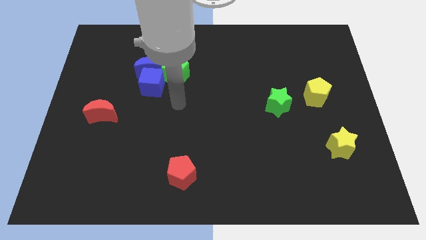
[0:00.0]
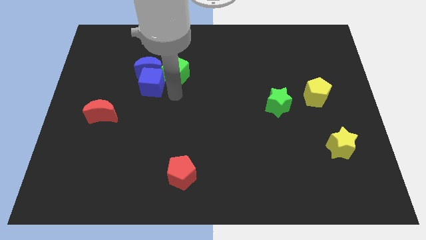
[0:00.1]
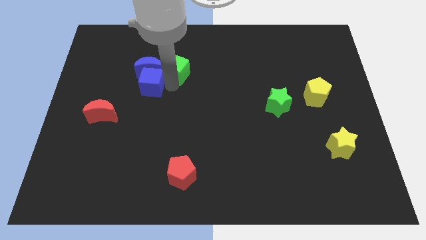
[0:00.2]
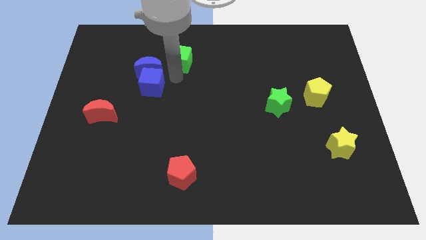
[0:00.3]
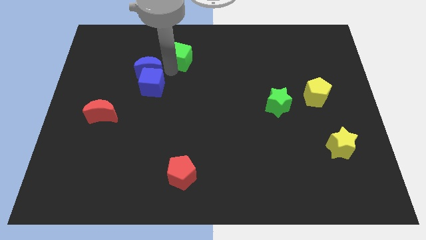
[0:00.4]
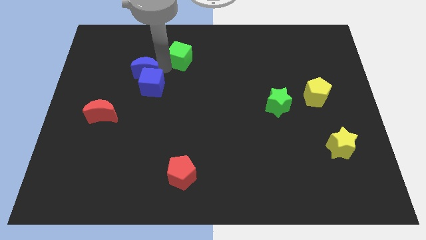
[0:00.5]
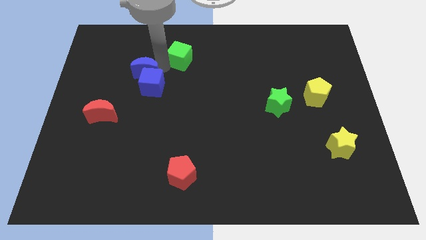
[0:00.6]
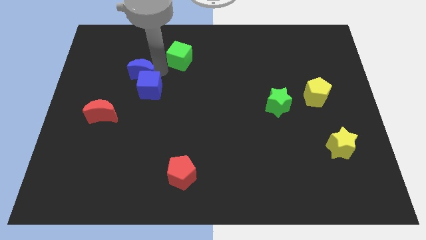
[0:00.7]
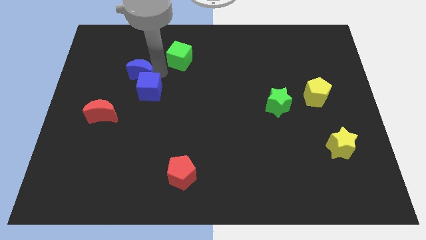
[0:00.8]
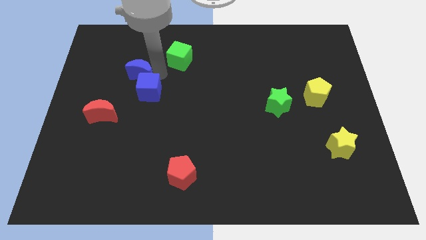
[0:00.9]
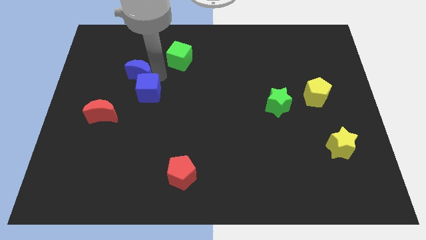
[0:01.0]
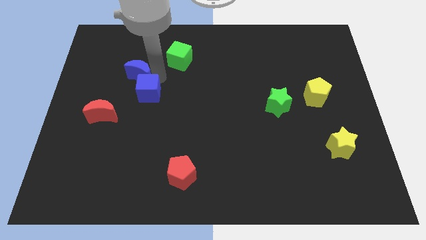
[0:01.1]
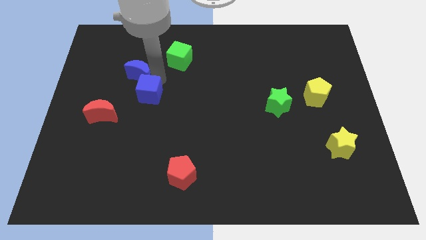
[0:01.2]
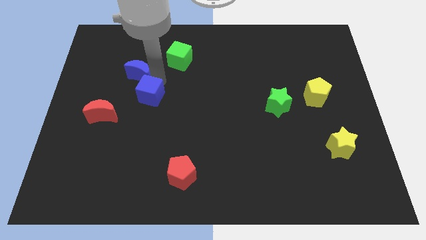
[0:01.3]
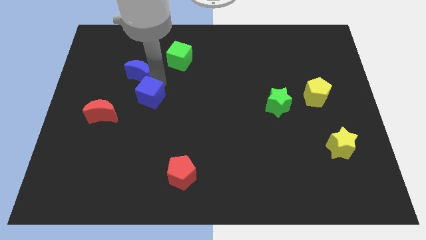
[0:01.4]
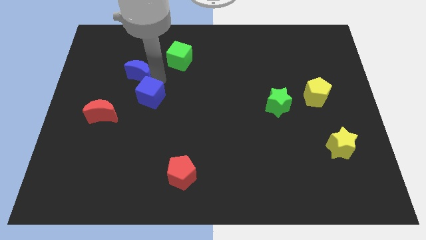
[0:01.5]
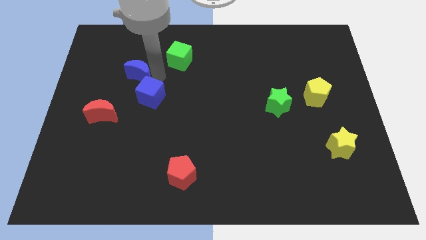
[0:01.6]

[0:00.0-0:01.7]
move the blue cube away from the blue moon and green cube

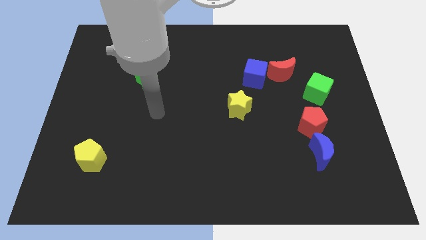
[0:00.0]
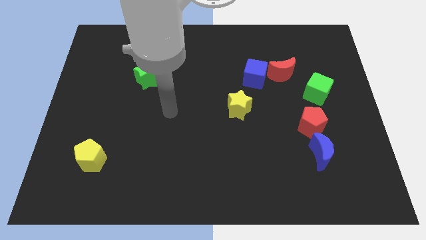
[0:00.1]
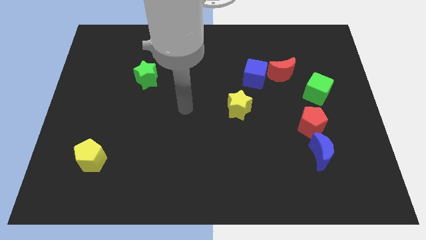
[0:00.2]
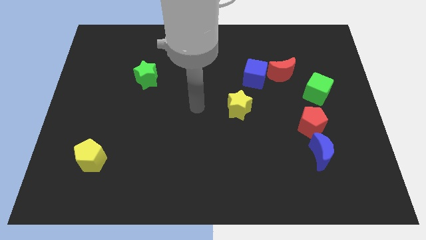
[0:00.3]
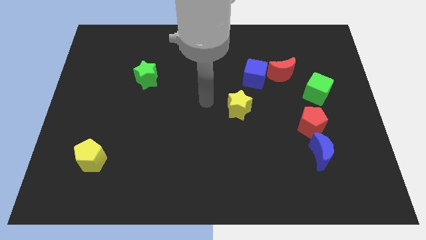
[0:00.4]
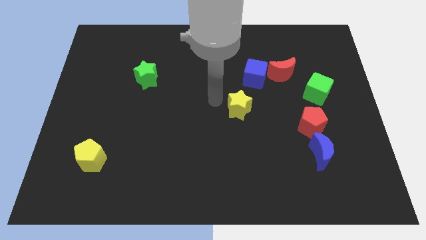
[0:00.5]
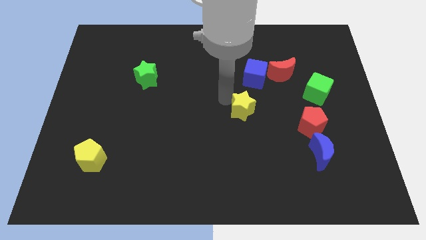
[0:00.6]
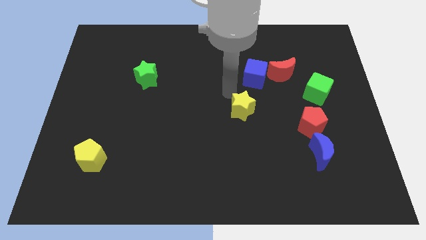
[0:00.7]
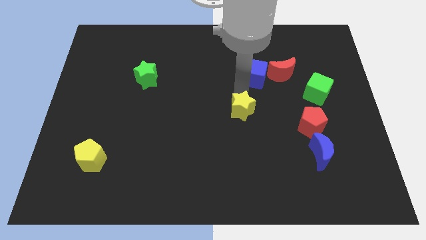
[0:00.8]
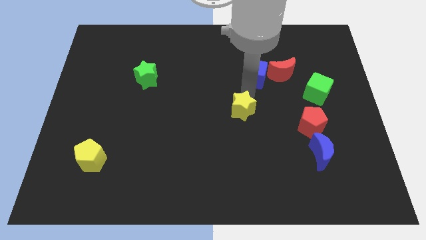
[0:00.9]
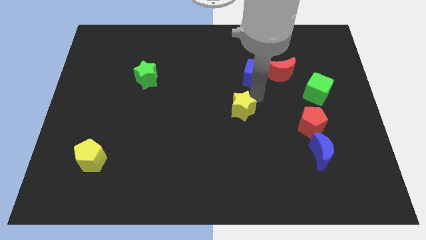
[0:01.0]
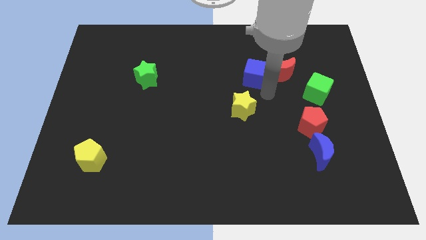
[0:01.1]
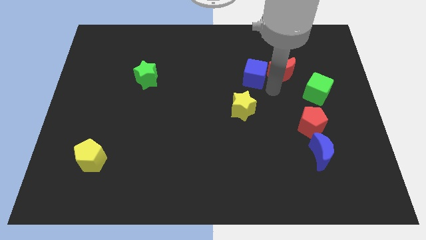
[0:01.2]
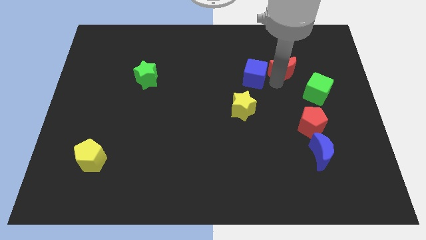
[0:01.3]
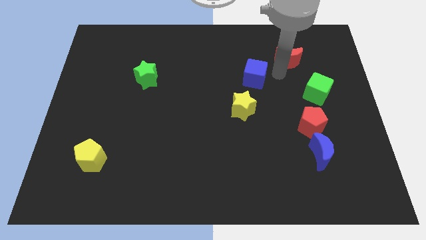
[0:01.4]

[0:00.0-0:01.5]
move the blue cube away from the red moon

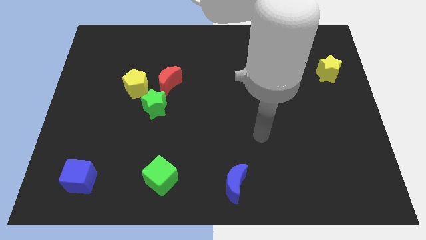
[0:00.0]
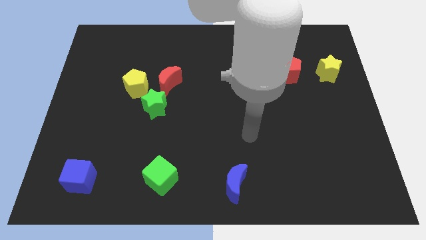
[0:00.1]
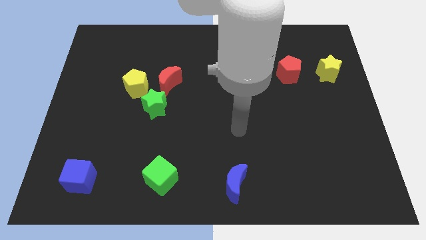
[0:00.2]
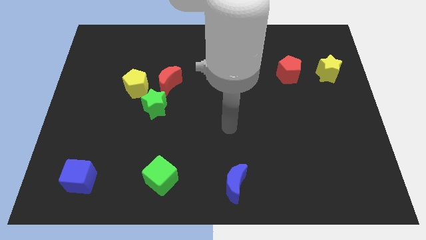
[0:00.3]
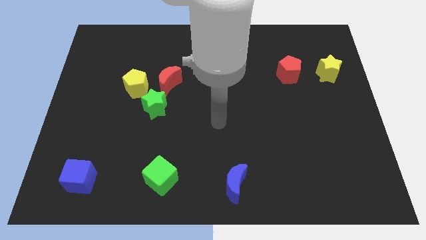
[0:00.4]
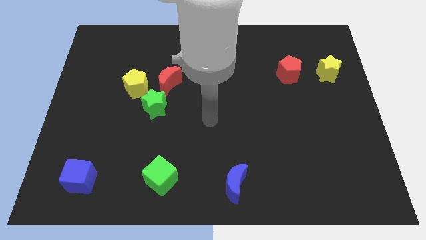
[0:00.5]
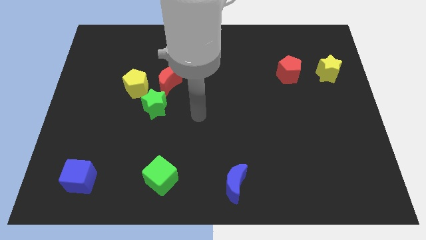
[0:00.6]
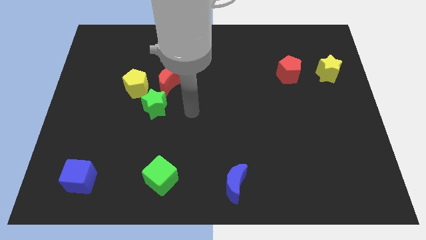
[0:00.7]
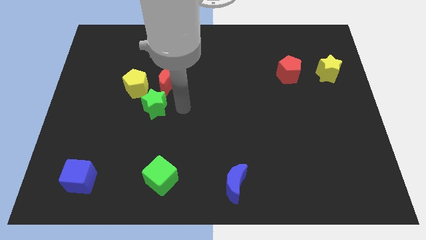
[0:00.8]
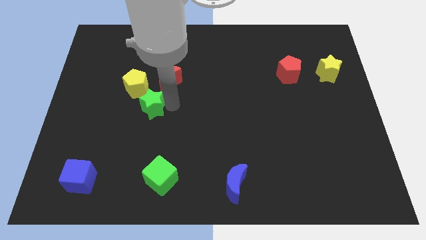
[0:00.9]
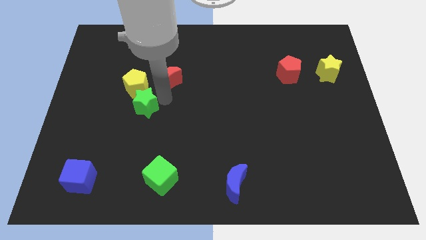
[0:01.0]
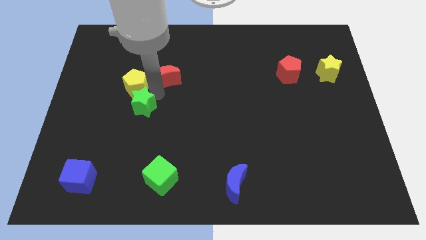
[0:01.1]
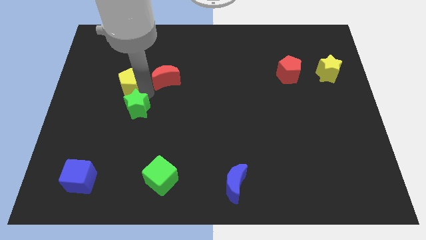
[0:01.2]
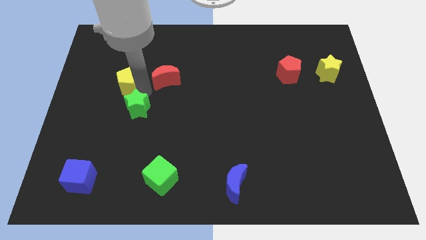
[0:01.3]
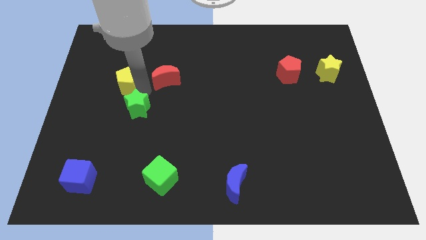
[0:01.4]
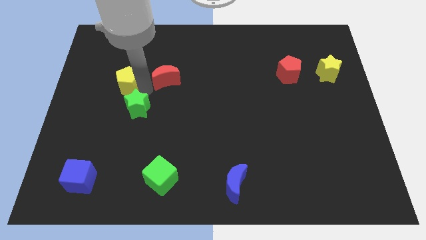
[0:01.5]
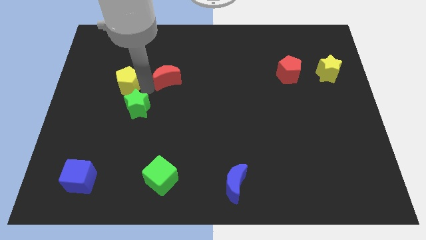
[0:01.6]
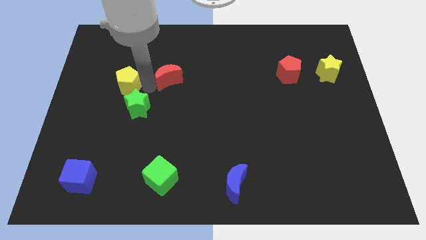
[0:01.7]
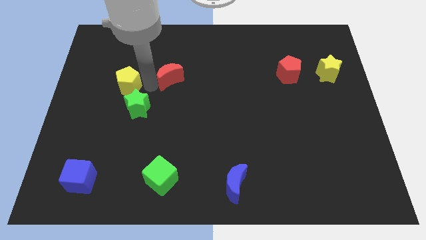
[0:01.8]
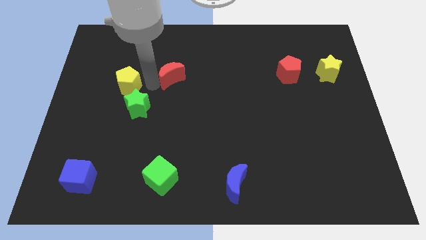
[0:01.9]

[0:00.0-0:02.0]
pull the red moon apart from the yellow pentagon and green star

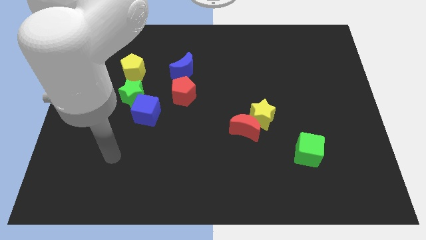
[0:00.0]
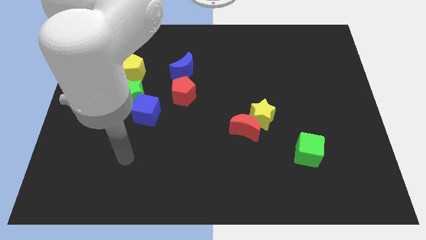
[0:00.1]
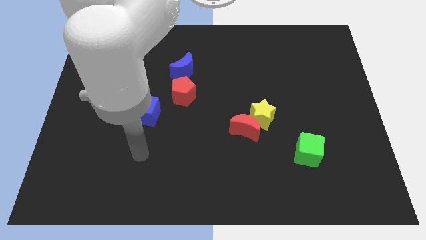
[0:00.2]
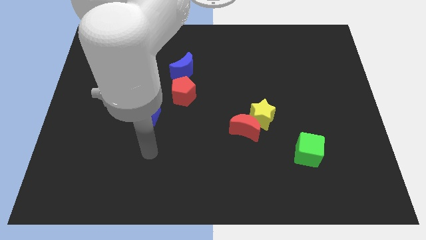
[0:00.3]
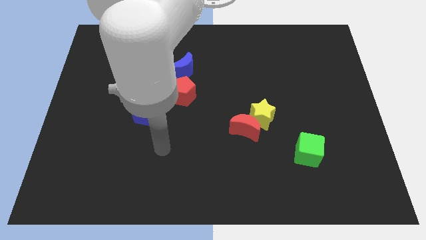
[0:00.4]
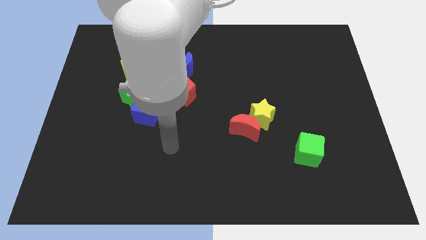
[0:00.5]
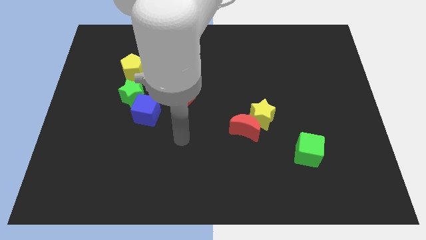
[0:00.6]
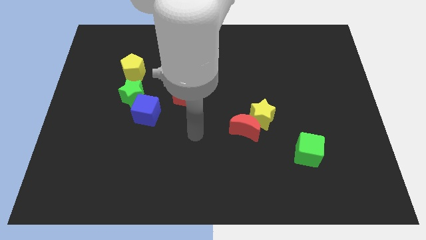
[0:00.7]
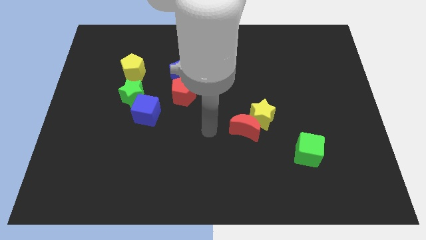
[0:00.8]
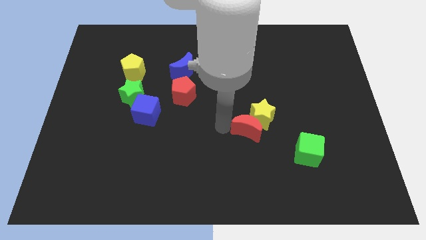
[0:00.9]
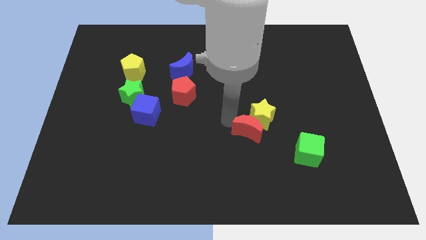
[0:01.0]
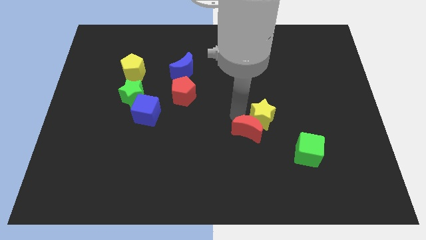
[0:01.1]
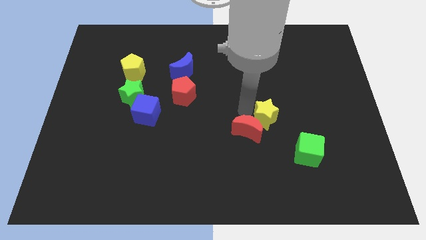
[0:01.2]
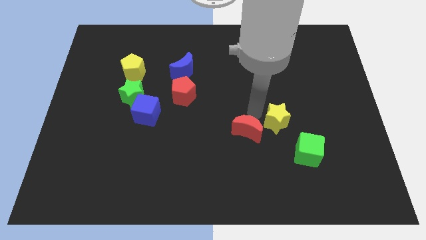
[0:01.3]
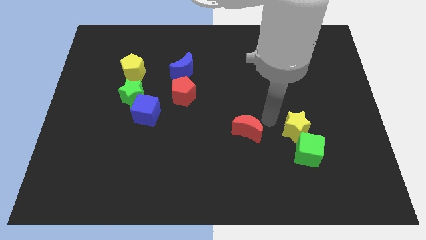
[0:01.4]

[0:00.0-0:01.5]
separate the red moon from the yellow star

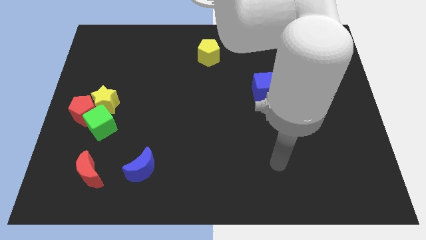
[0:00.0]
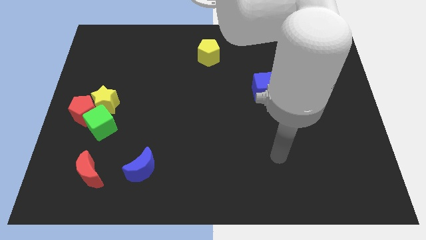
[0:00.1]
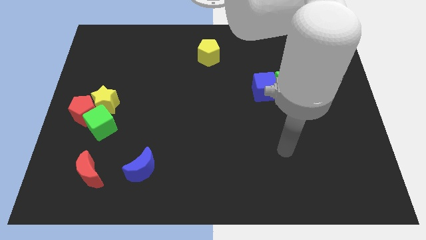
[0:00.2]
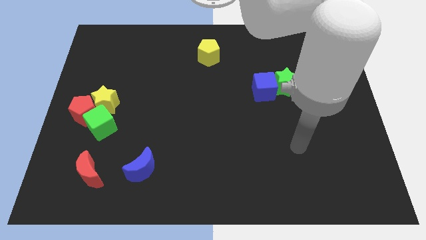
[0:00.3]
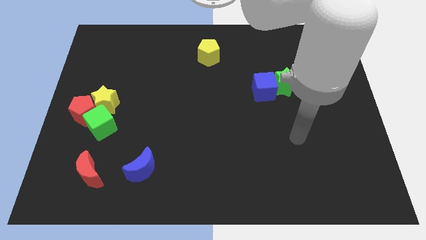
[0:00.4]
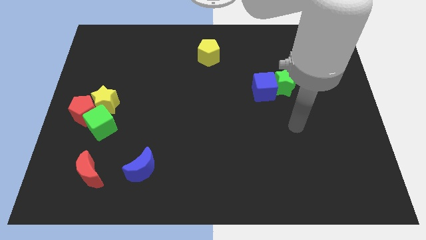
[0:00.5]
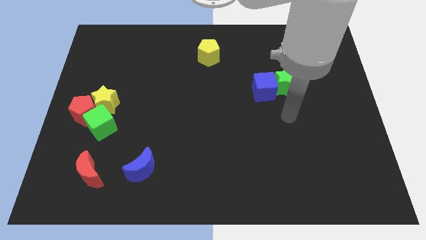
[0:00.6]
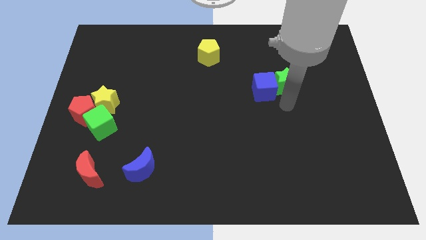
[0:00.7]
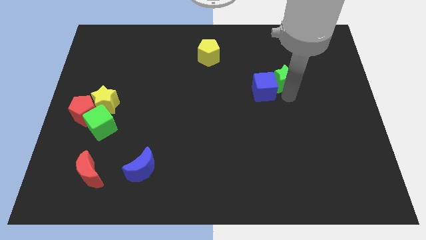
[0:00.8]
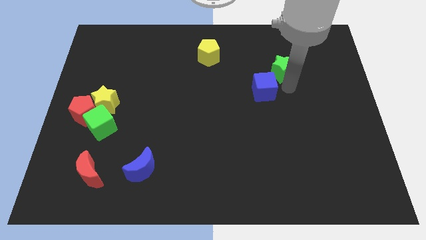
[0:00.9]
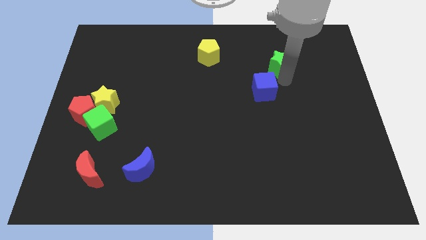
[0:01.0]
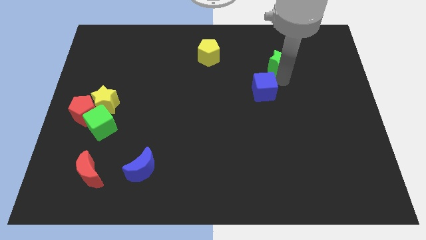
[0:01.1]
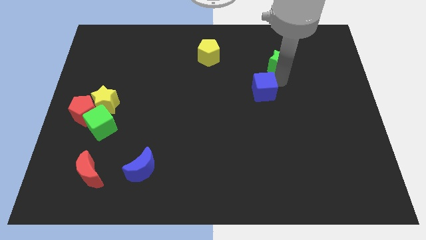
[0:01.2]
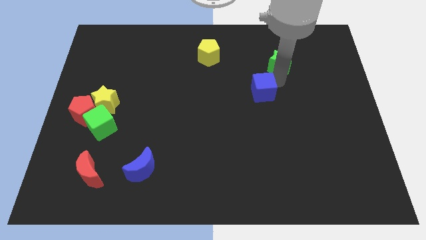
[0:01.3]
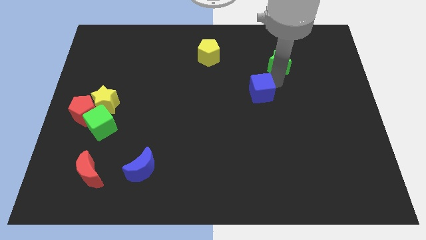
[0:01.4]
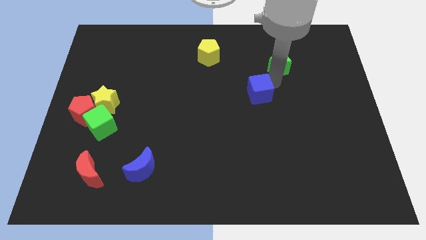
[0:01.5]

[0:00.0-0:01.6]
move the blue cube away from the green star

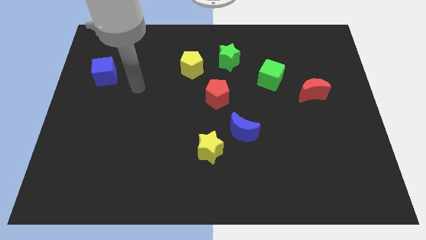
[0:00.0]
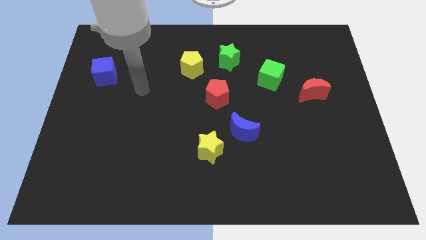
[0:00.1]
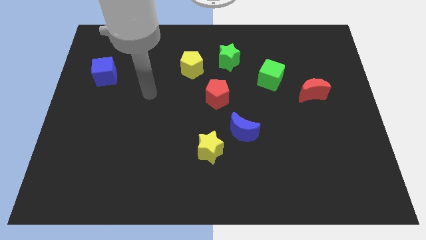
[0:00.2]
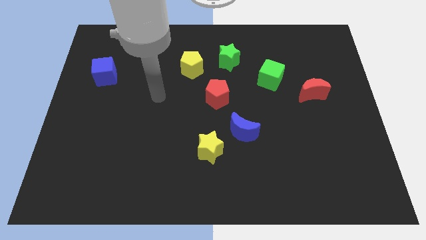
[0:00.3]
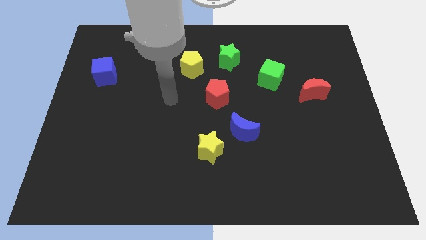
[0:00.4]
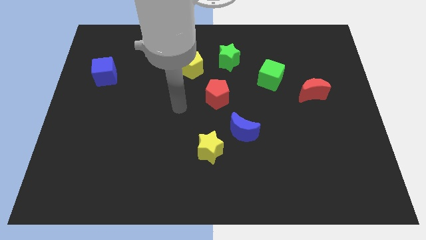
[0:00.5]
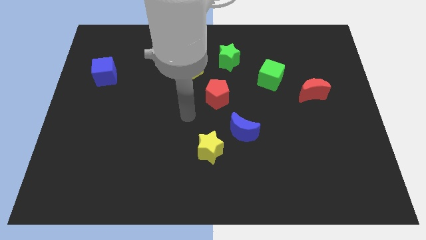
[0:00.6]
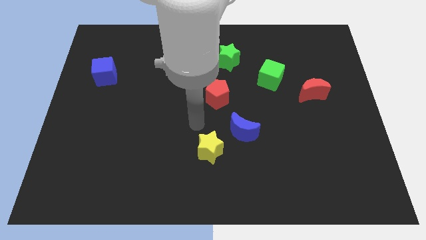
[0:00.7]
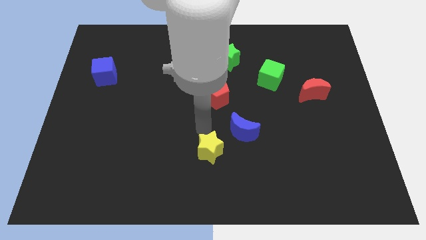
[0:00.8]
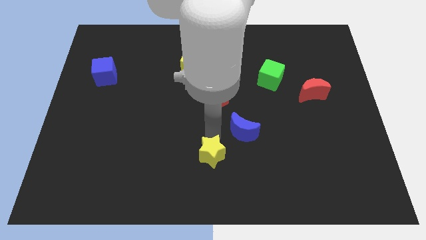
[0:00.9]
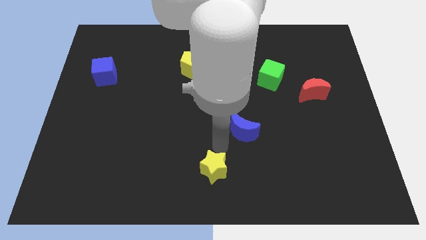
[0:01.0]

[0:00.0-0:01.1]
separate the blue moon from the yellow star
